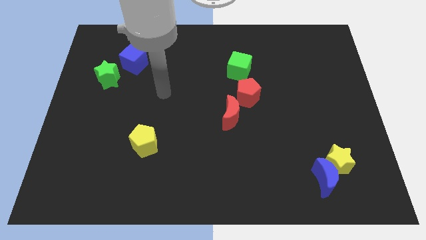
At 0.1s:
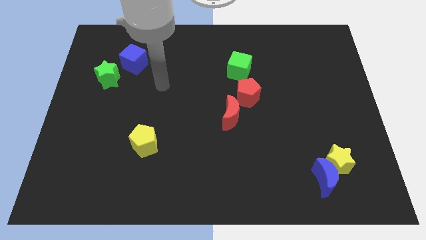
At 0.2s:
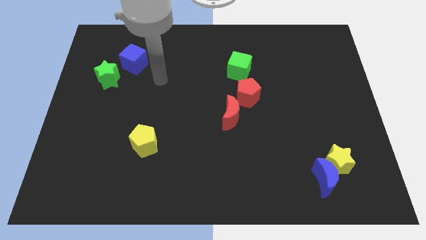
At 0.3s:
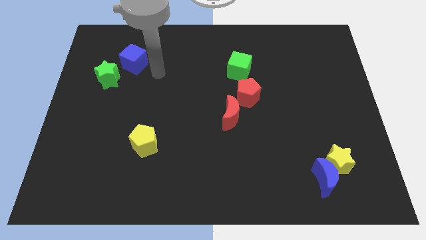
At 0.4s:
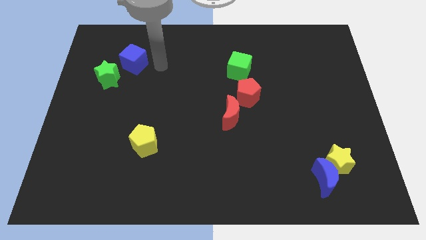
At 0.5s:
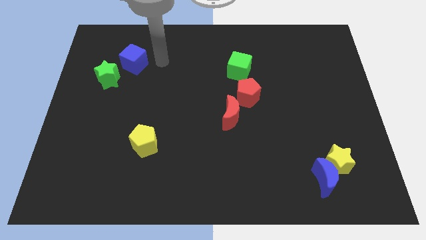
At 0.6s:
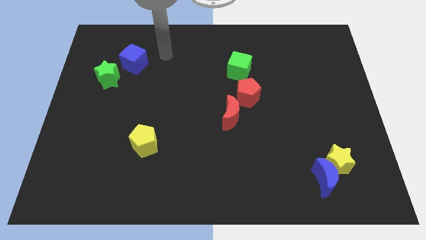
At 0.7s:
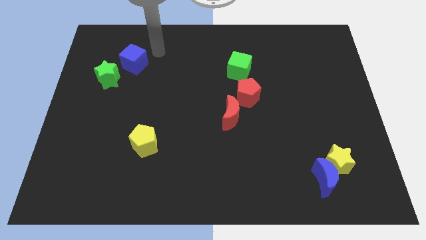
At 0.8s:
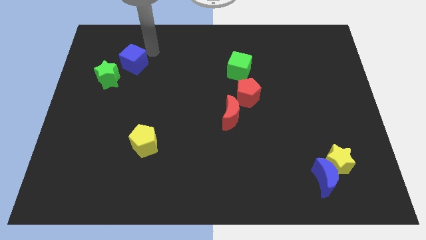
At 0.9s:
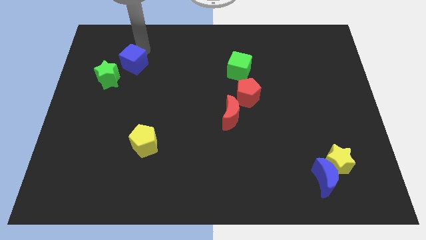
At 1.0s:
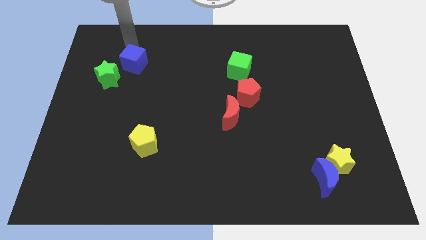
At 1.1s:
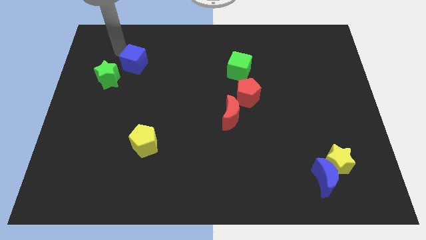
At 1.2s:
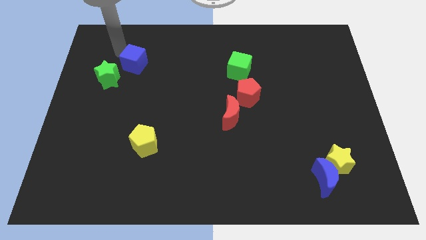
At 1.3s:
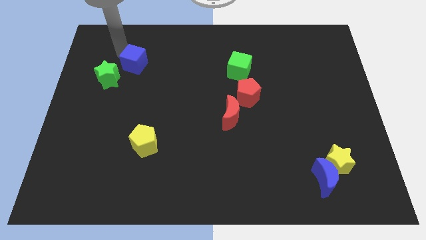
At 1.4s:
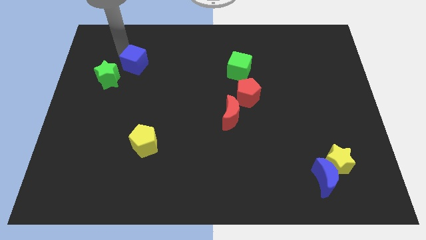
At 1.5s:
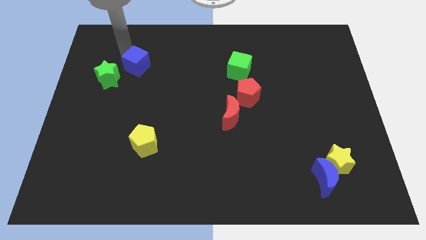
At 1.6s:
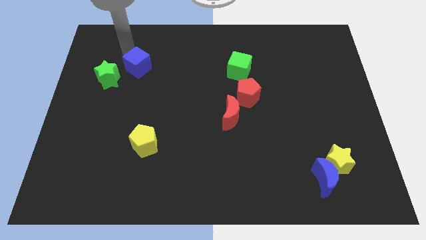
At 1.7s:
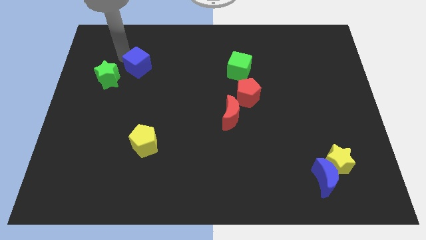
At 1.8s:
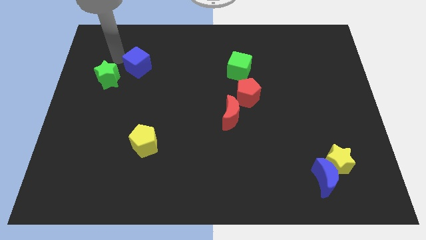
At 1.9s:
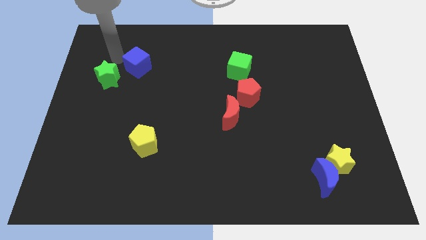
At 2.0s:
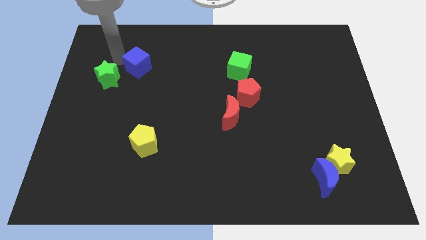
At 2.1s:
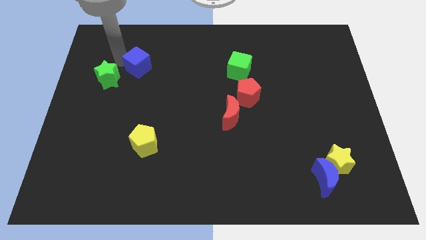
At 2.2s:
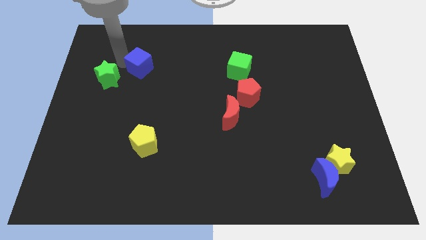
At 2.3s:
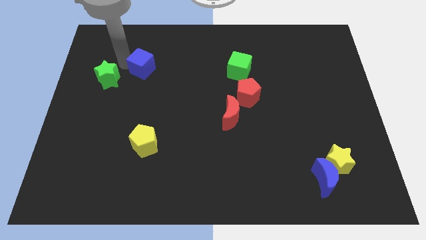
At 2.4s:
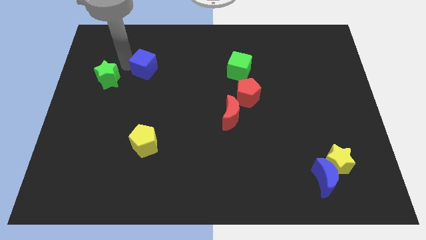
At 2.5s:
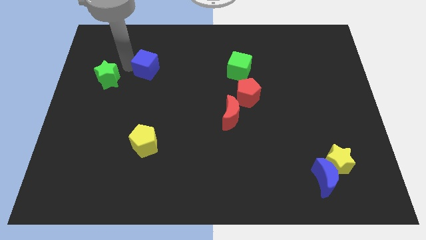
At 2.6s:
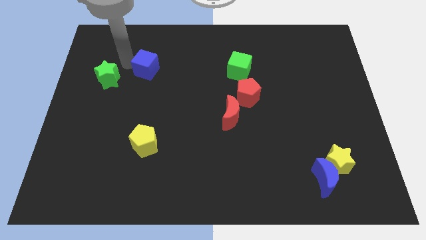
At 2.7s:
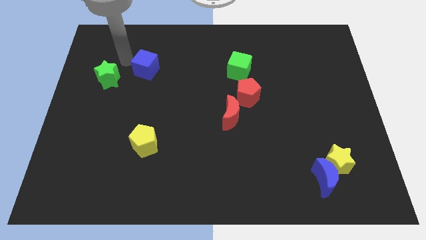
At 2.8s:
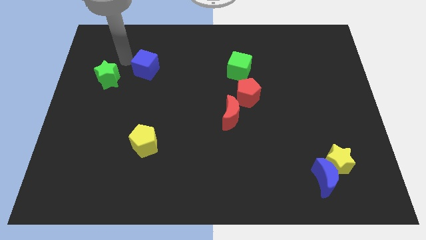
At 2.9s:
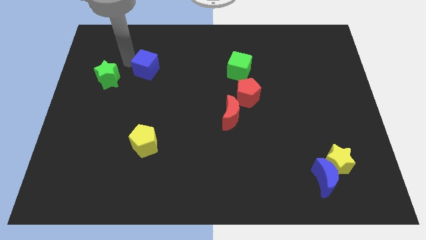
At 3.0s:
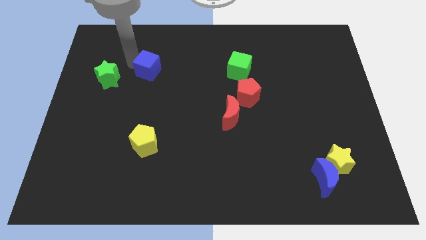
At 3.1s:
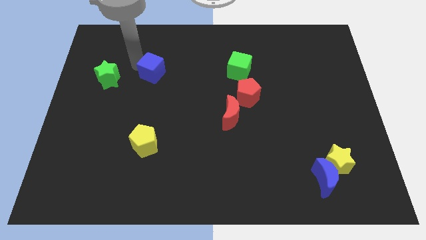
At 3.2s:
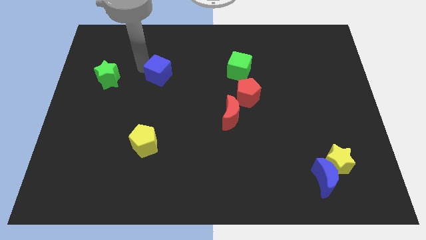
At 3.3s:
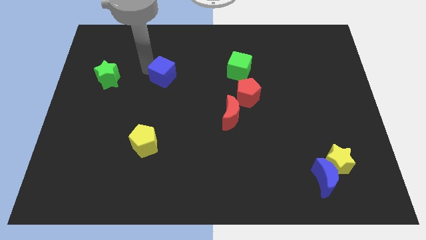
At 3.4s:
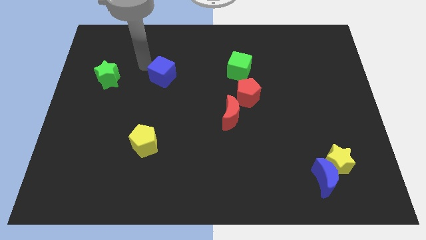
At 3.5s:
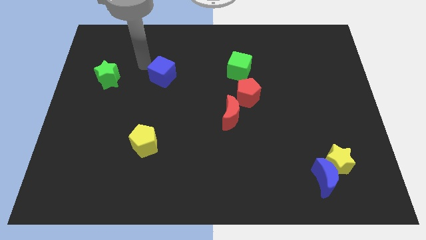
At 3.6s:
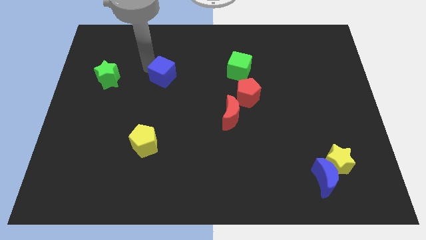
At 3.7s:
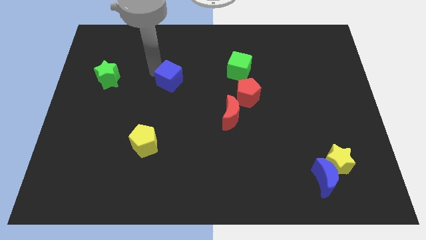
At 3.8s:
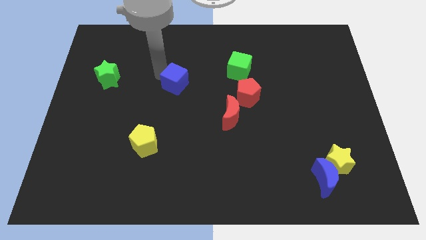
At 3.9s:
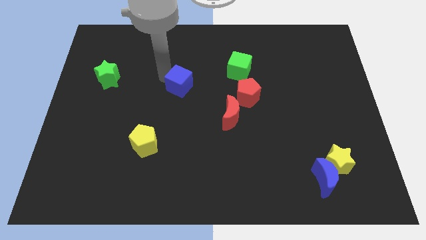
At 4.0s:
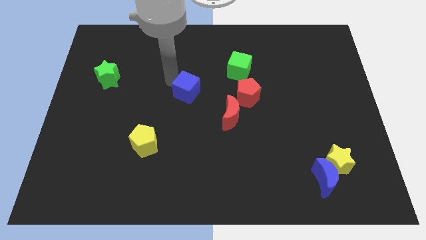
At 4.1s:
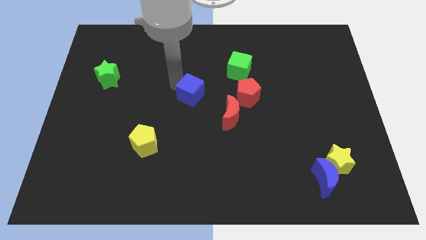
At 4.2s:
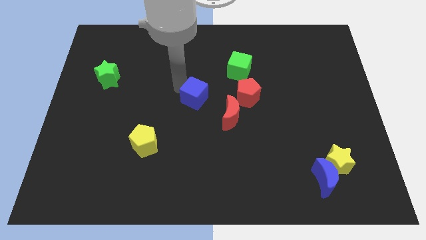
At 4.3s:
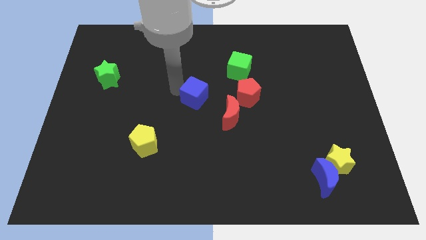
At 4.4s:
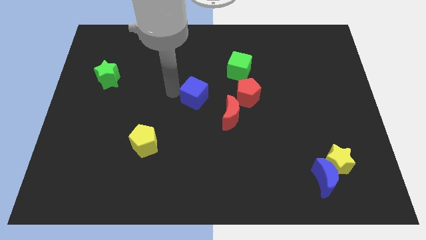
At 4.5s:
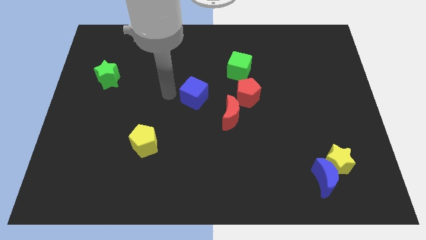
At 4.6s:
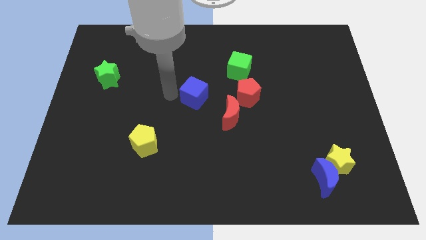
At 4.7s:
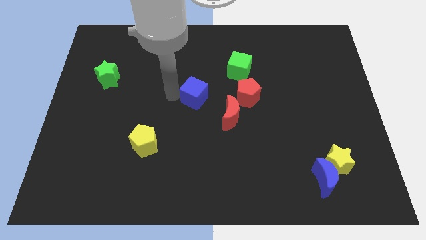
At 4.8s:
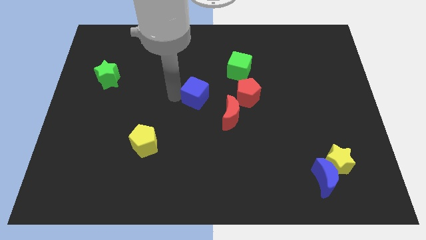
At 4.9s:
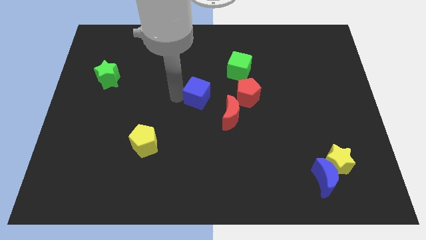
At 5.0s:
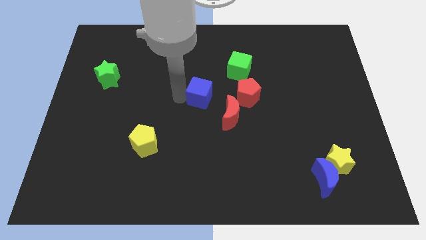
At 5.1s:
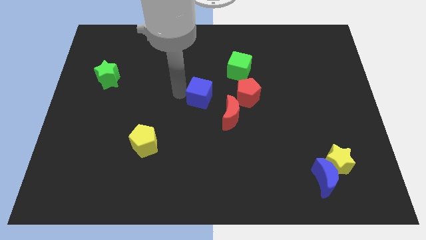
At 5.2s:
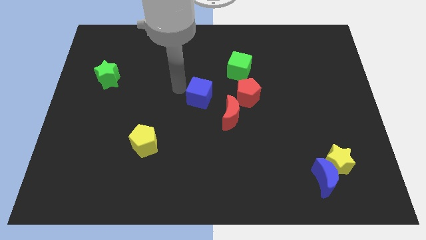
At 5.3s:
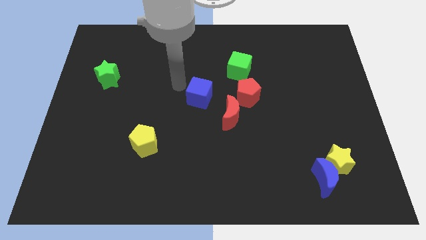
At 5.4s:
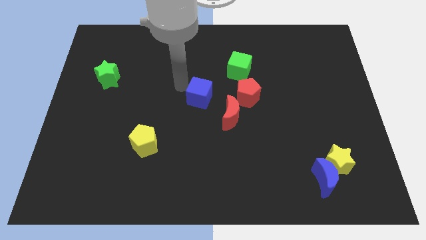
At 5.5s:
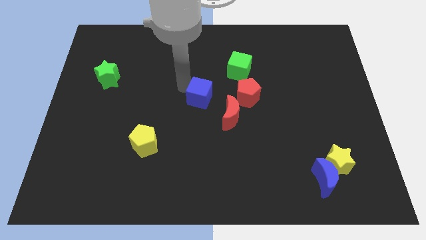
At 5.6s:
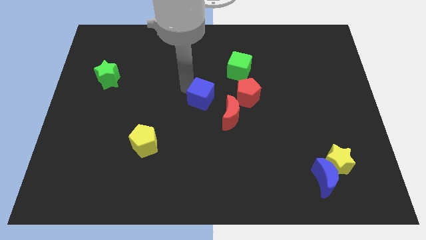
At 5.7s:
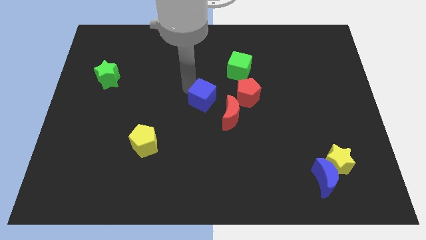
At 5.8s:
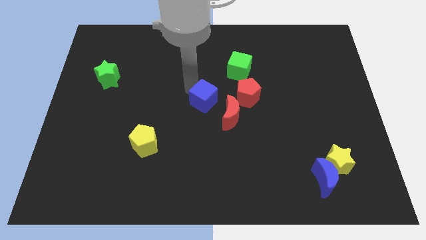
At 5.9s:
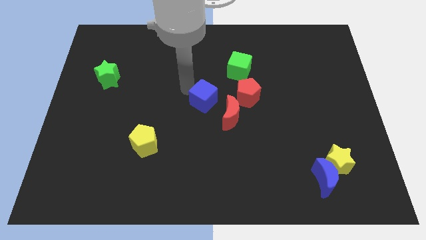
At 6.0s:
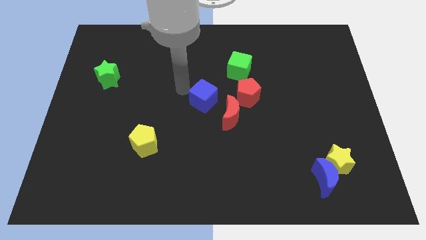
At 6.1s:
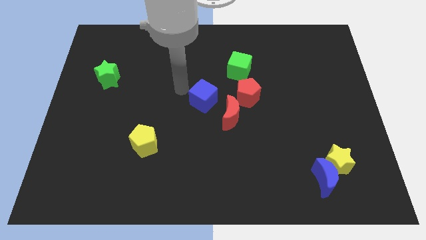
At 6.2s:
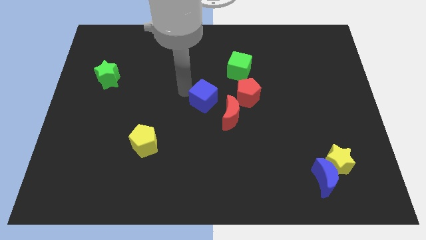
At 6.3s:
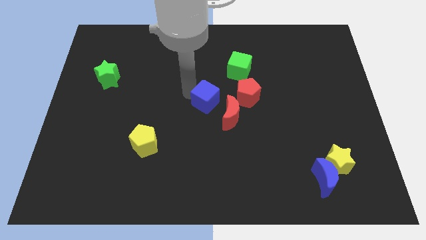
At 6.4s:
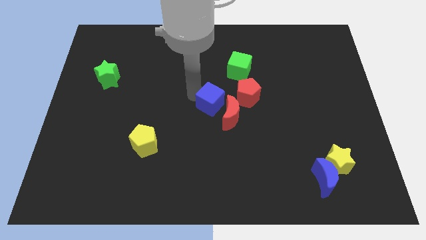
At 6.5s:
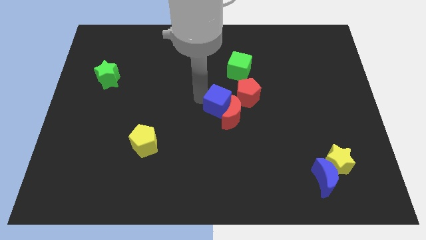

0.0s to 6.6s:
move the blue cube to the red moon

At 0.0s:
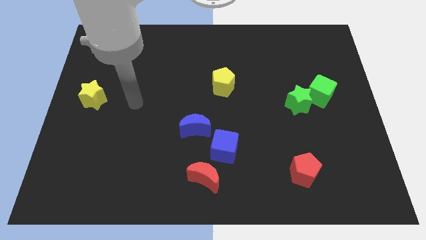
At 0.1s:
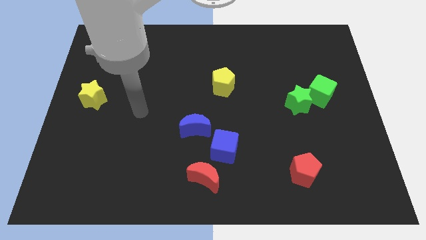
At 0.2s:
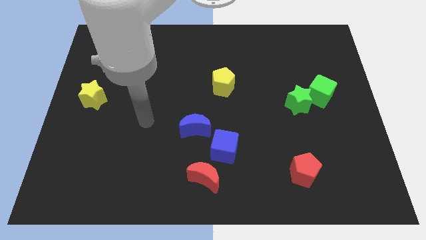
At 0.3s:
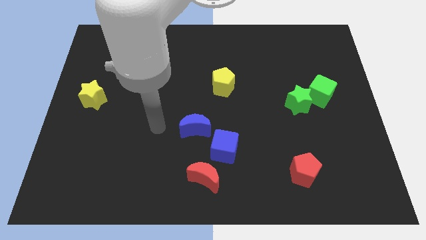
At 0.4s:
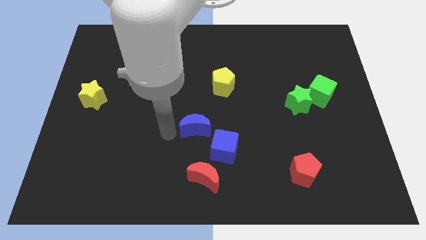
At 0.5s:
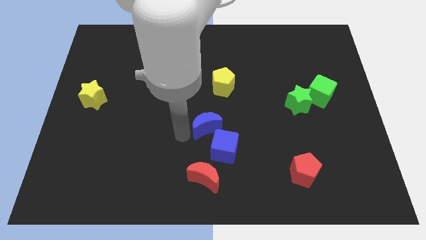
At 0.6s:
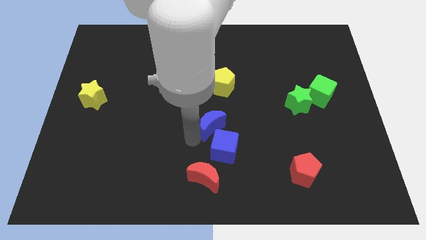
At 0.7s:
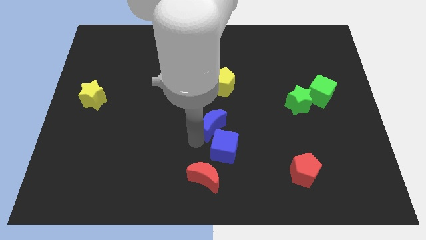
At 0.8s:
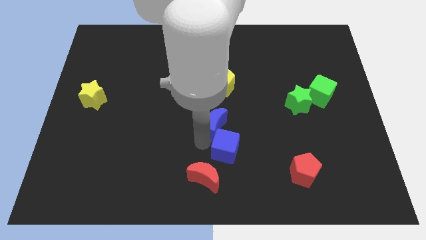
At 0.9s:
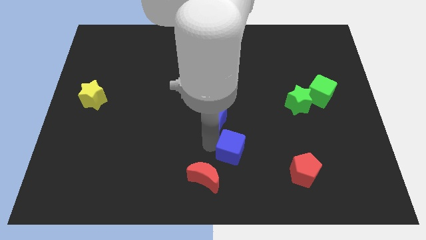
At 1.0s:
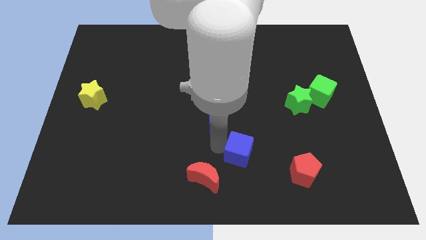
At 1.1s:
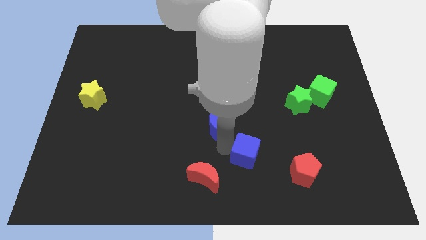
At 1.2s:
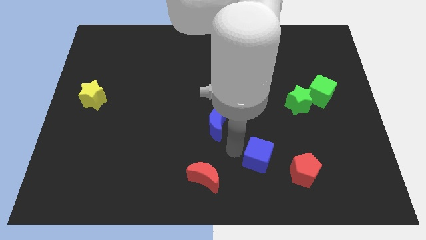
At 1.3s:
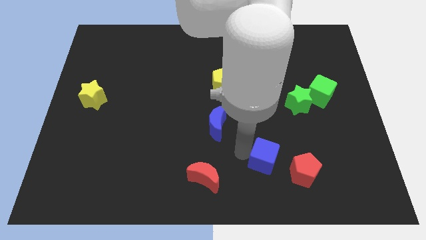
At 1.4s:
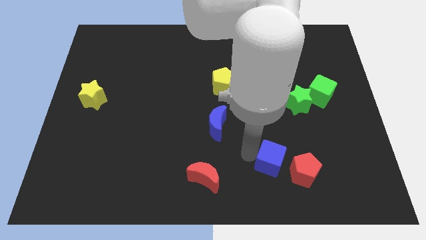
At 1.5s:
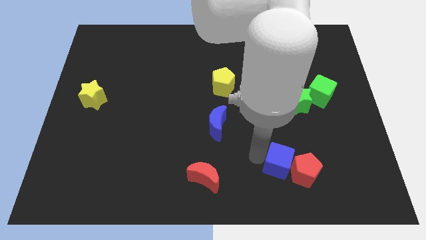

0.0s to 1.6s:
push the blue cube next to the red pentagon
